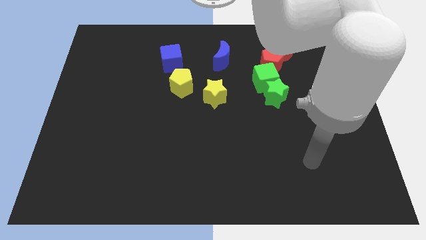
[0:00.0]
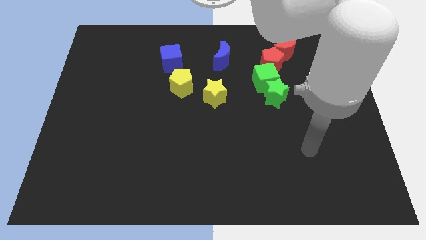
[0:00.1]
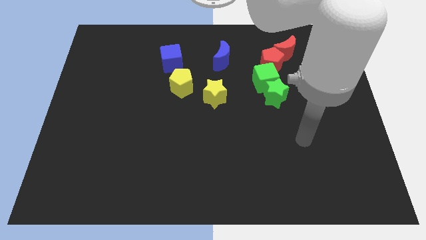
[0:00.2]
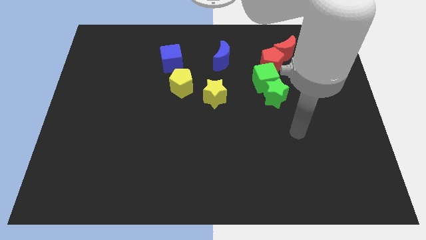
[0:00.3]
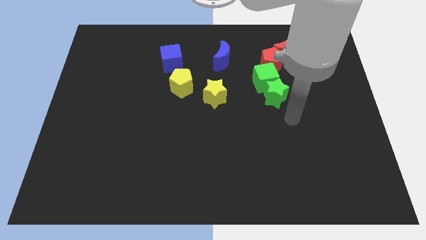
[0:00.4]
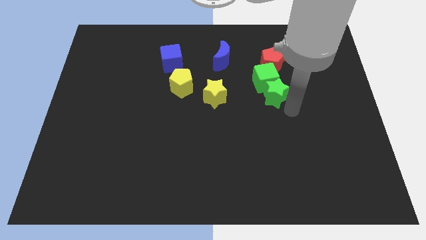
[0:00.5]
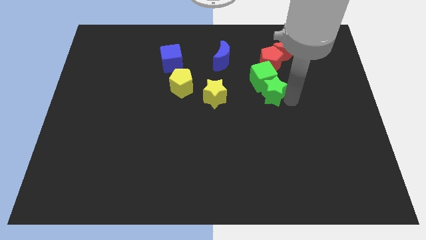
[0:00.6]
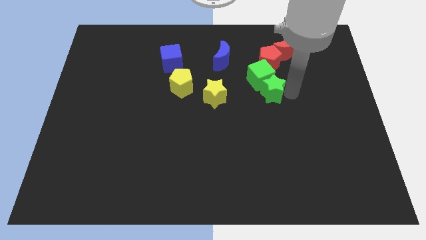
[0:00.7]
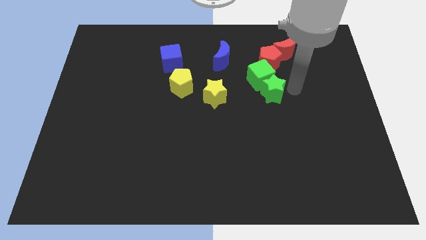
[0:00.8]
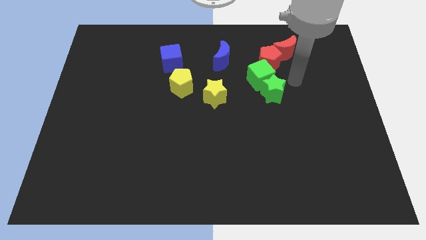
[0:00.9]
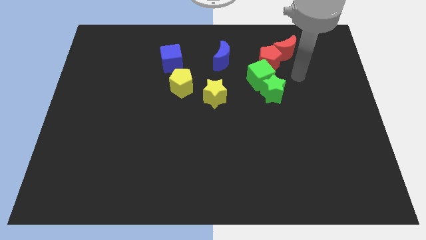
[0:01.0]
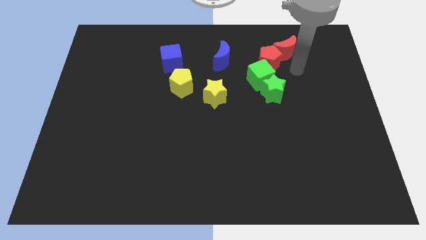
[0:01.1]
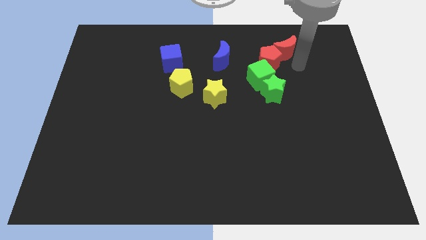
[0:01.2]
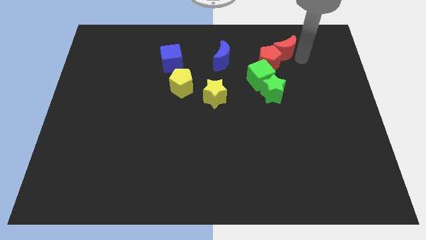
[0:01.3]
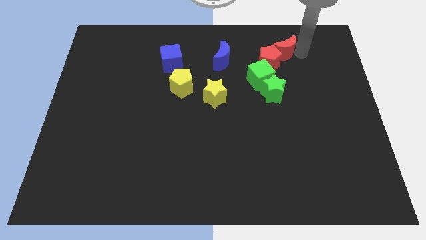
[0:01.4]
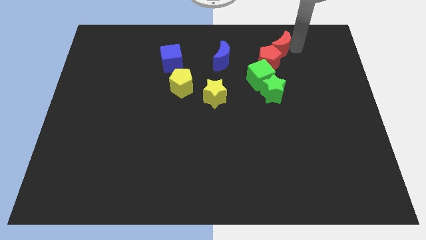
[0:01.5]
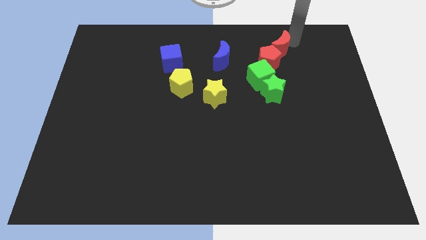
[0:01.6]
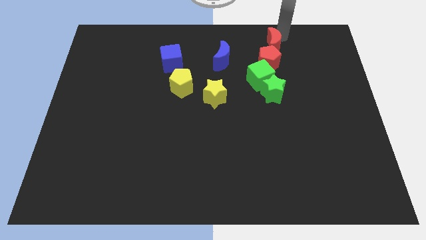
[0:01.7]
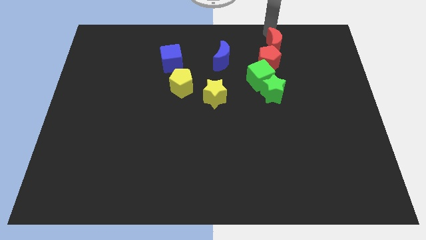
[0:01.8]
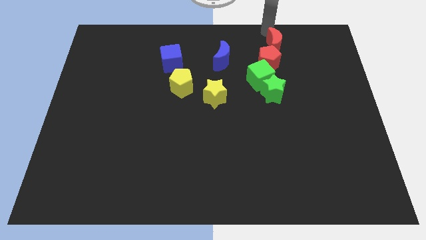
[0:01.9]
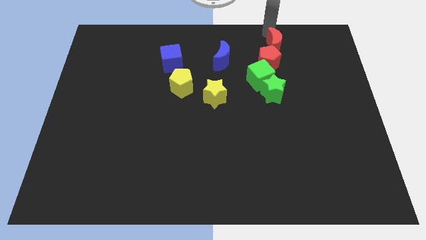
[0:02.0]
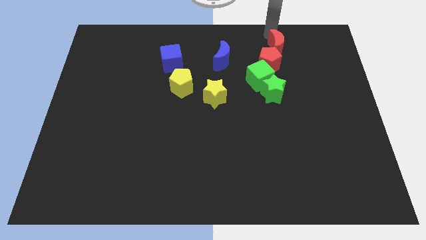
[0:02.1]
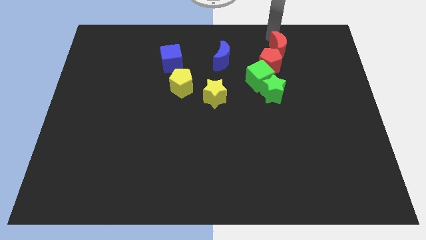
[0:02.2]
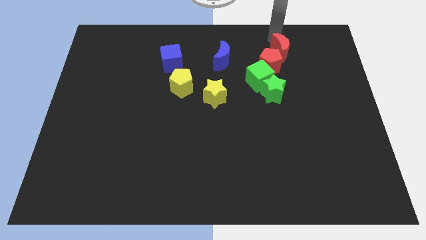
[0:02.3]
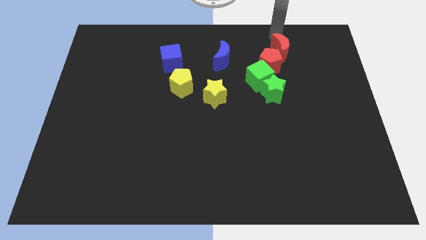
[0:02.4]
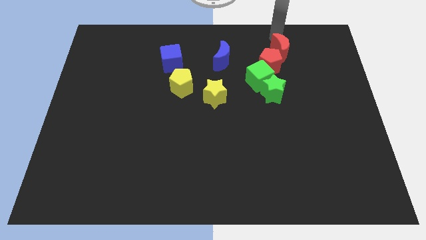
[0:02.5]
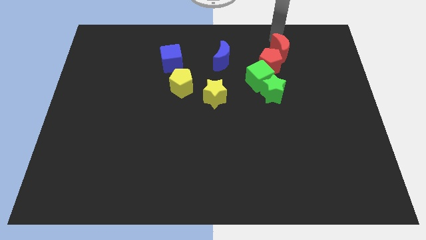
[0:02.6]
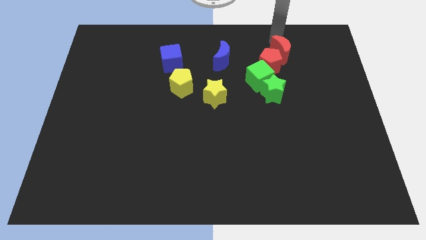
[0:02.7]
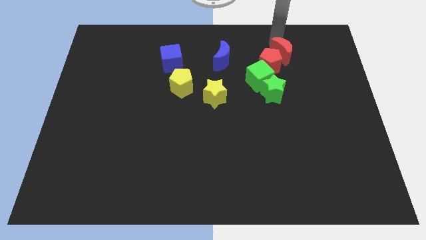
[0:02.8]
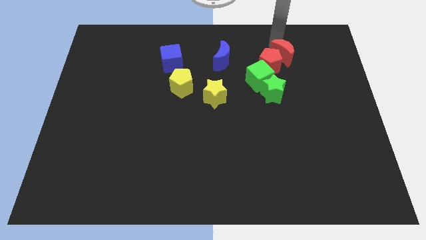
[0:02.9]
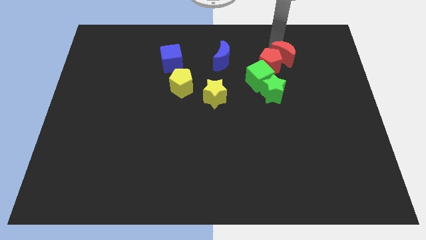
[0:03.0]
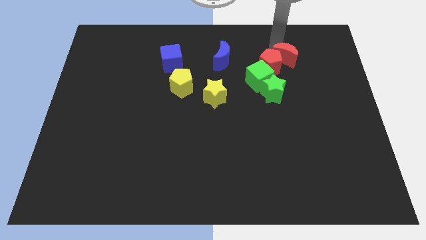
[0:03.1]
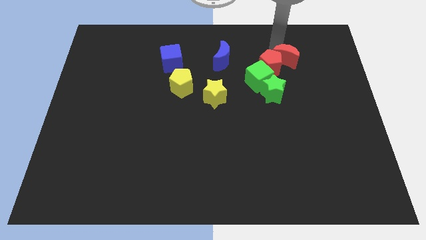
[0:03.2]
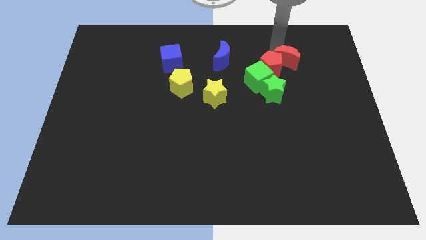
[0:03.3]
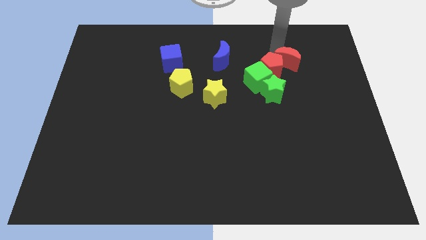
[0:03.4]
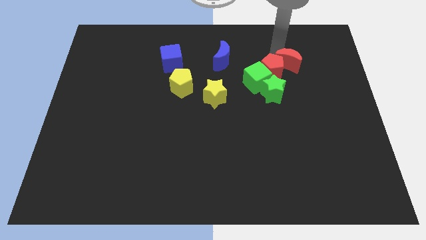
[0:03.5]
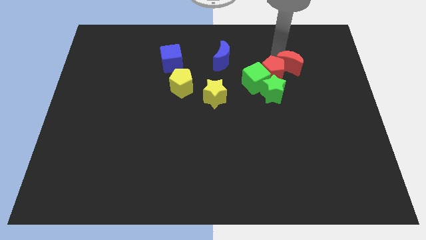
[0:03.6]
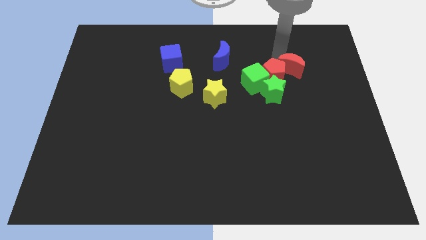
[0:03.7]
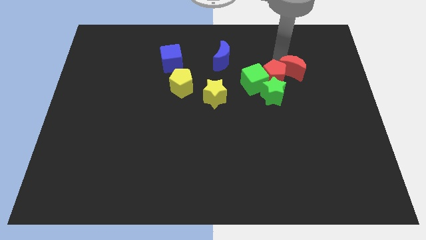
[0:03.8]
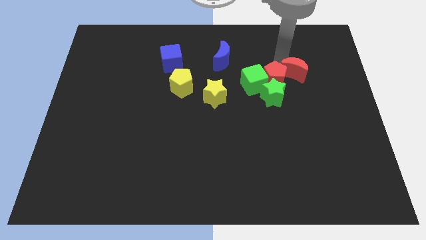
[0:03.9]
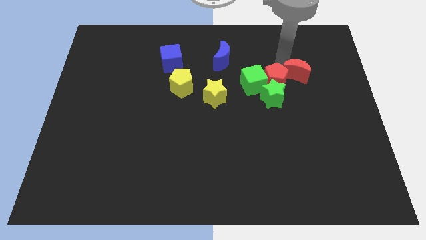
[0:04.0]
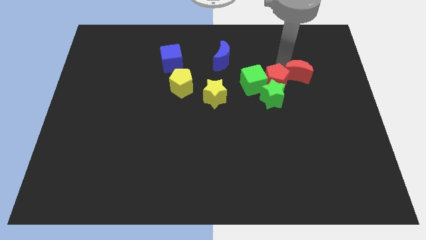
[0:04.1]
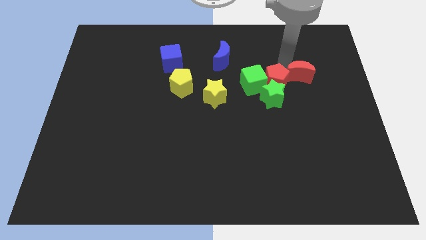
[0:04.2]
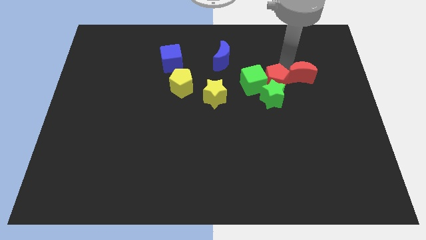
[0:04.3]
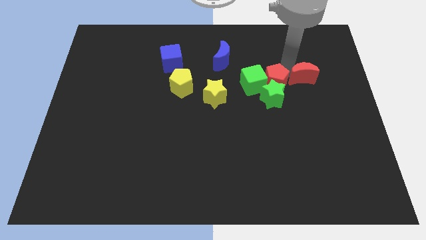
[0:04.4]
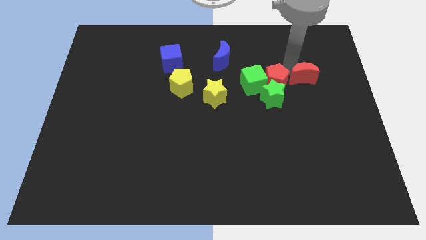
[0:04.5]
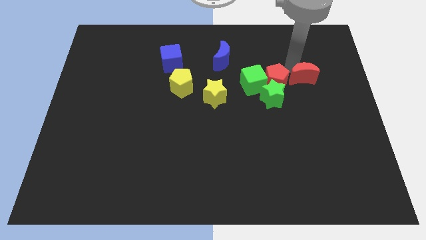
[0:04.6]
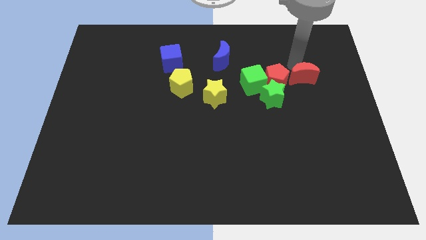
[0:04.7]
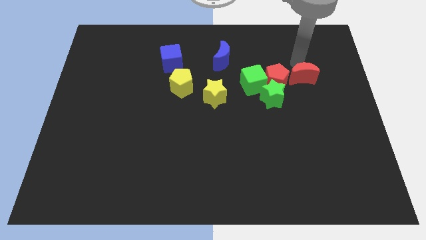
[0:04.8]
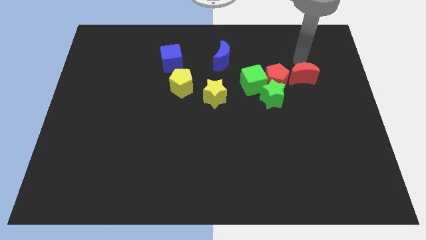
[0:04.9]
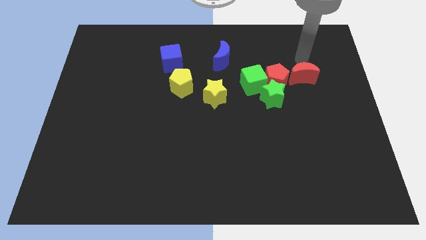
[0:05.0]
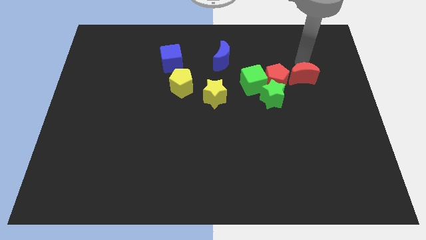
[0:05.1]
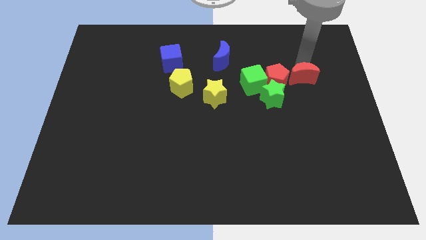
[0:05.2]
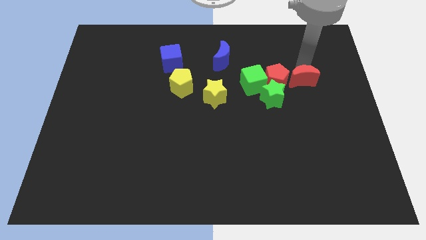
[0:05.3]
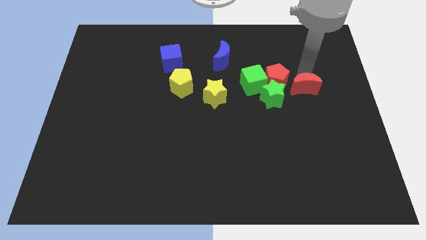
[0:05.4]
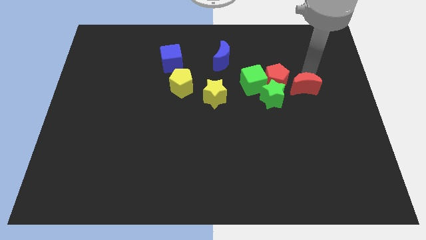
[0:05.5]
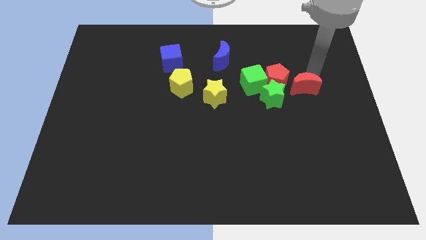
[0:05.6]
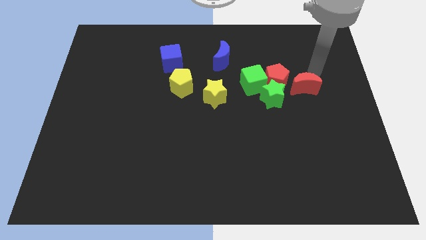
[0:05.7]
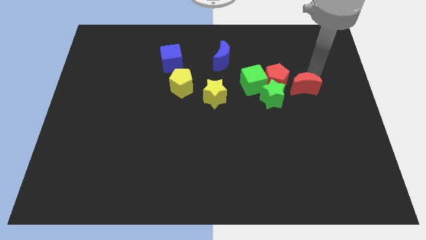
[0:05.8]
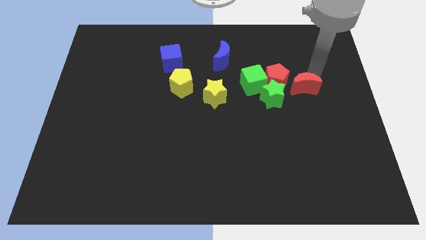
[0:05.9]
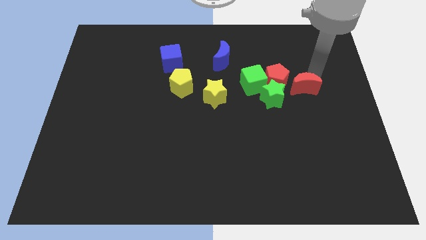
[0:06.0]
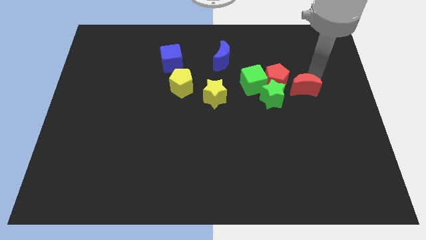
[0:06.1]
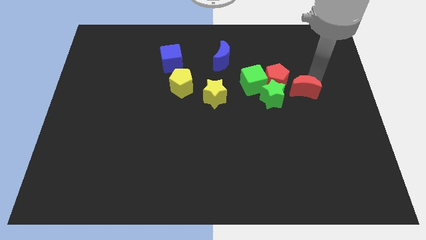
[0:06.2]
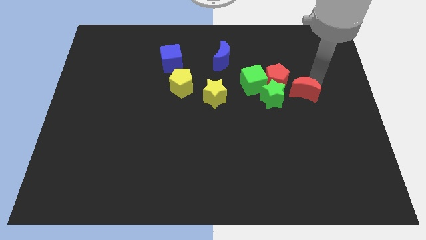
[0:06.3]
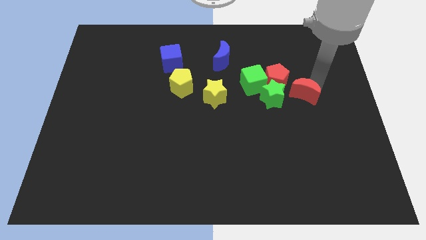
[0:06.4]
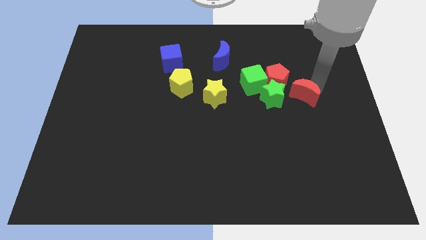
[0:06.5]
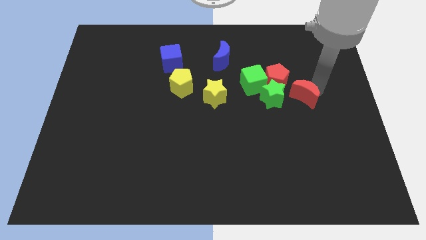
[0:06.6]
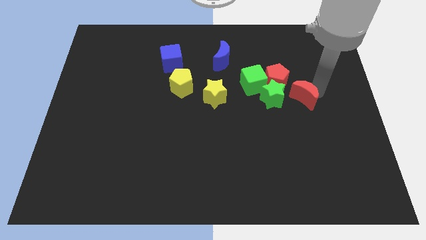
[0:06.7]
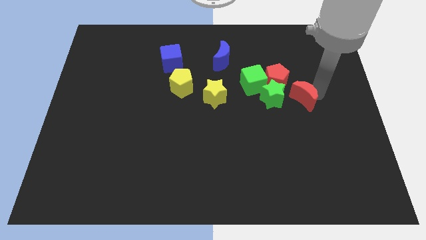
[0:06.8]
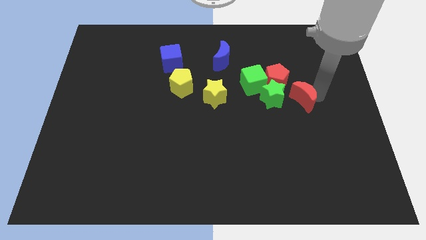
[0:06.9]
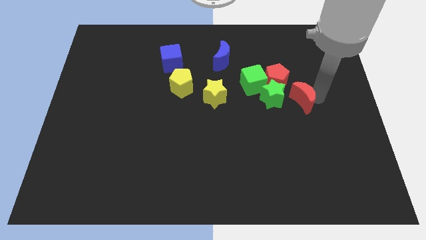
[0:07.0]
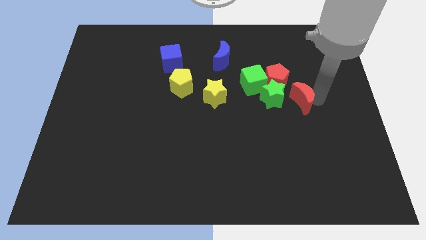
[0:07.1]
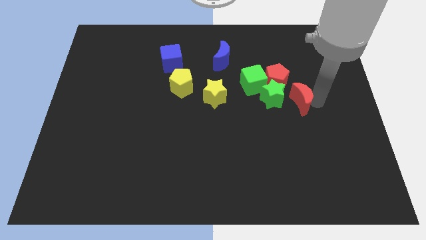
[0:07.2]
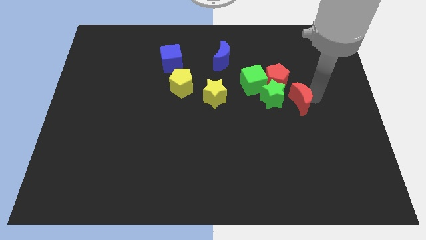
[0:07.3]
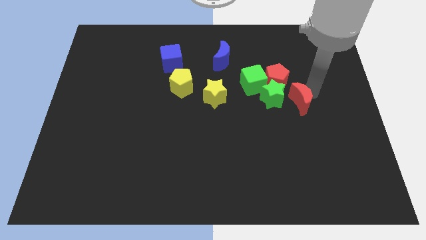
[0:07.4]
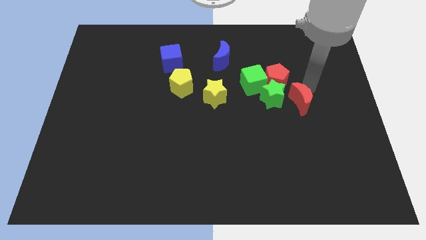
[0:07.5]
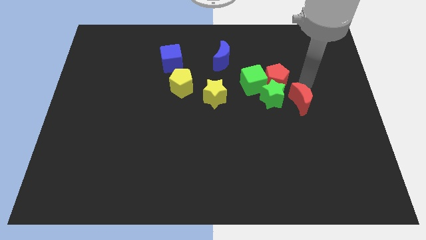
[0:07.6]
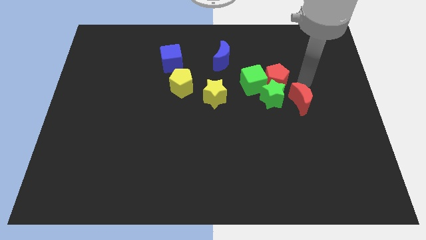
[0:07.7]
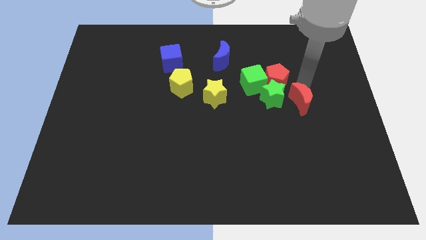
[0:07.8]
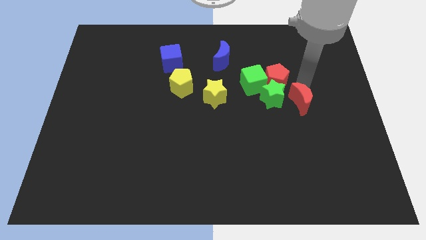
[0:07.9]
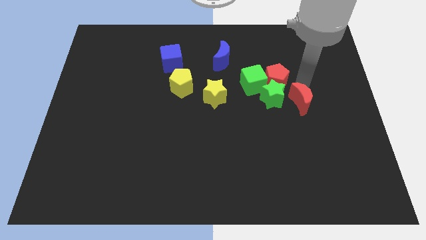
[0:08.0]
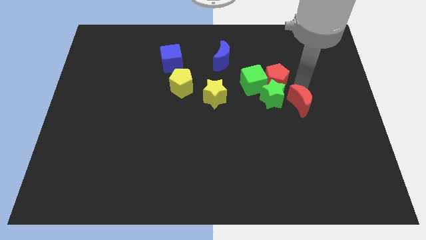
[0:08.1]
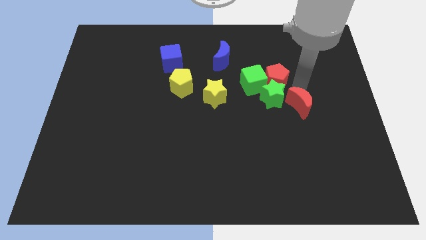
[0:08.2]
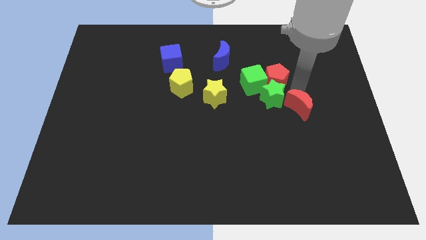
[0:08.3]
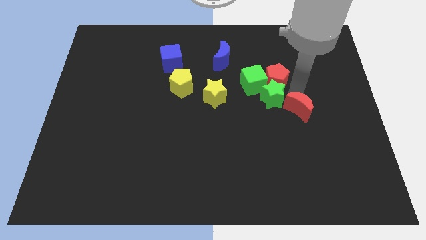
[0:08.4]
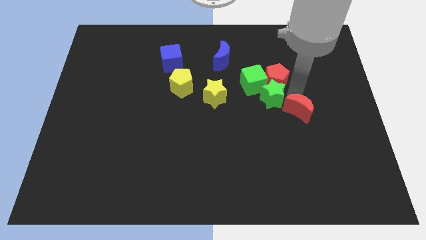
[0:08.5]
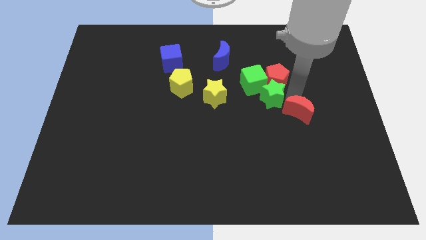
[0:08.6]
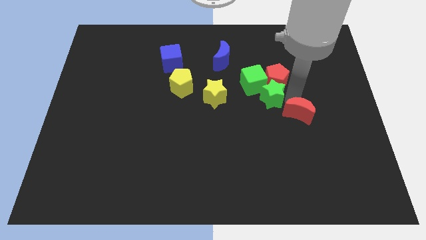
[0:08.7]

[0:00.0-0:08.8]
slide the red moon downwards
